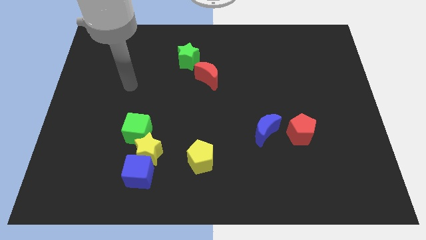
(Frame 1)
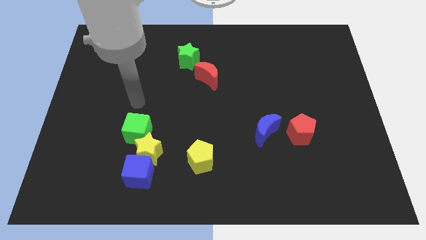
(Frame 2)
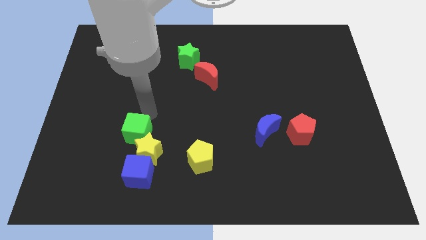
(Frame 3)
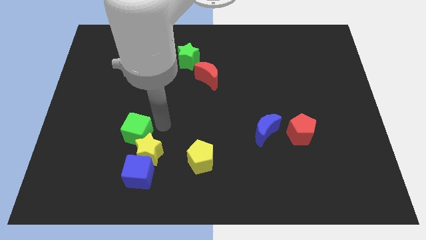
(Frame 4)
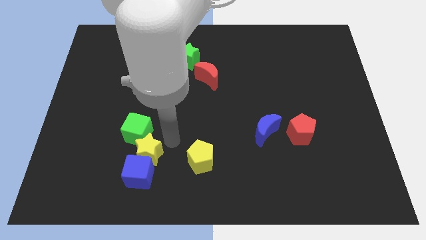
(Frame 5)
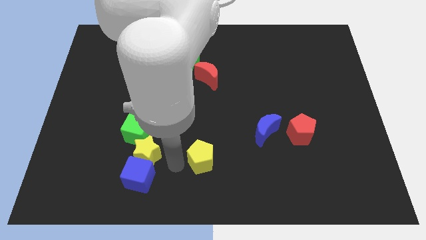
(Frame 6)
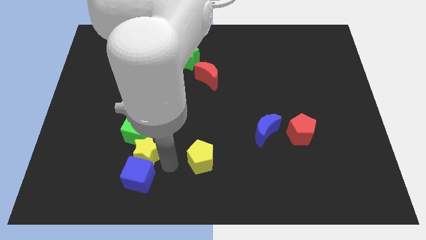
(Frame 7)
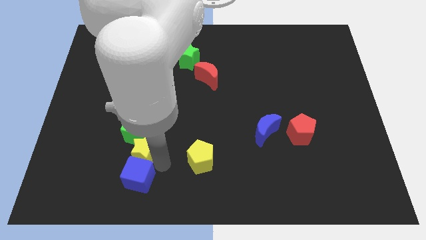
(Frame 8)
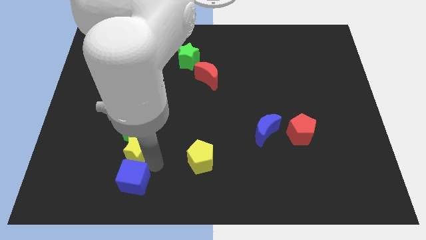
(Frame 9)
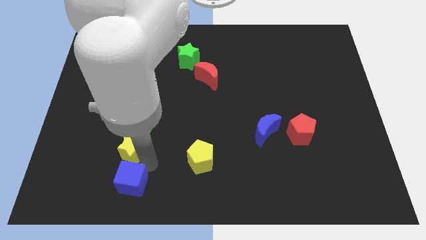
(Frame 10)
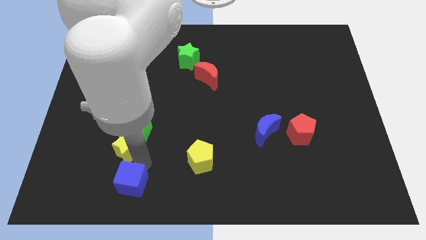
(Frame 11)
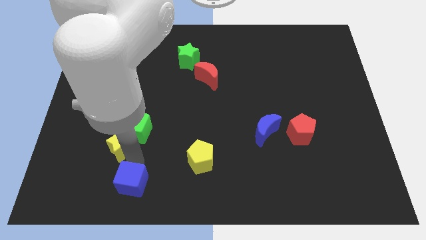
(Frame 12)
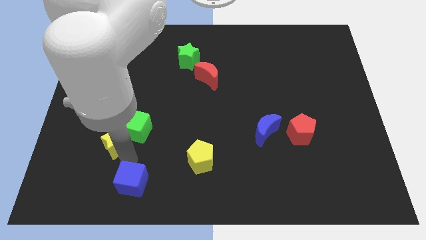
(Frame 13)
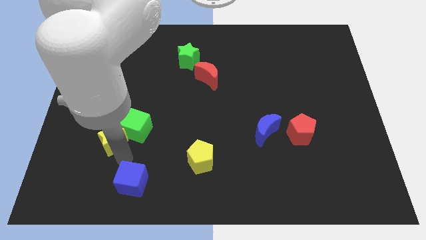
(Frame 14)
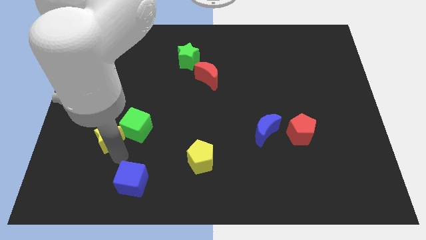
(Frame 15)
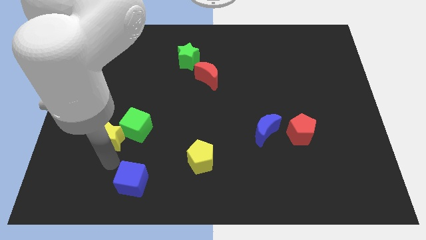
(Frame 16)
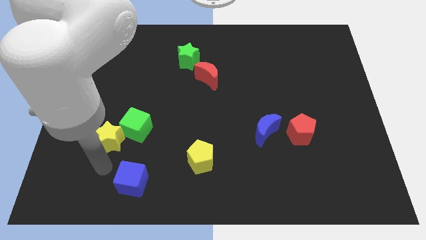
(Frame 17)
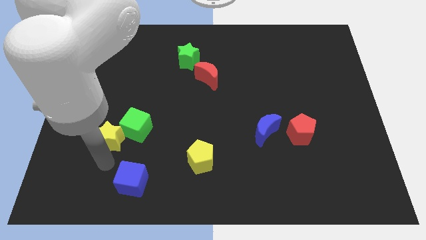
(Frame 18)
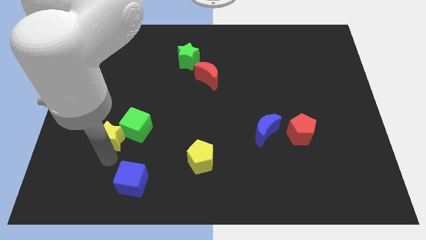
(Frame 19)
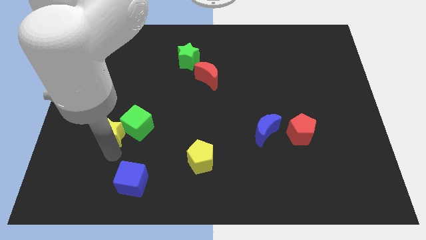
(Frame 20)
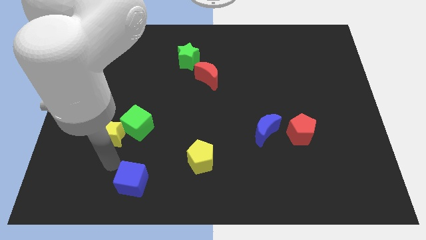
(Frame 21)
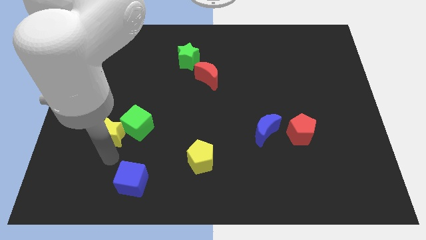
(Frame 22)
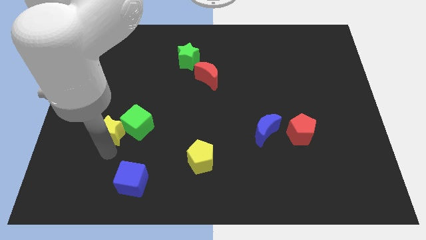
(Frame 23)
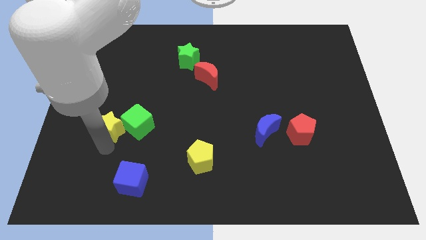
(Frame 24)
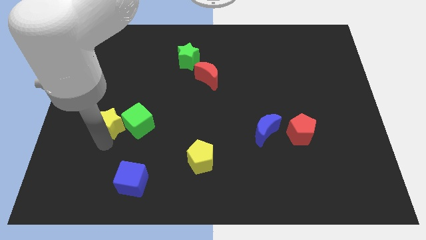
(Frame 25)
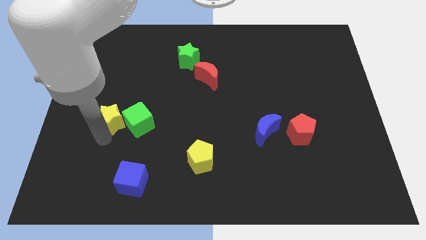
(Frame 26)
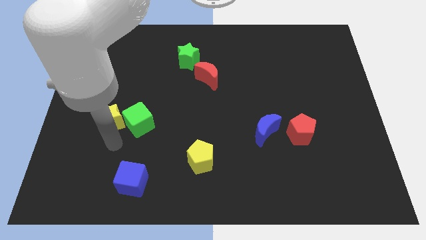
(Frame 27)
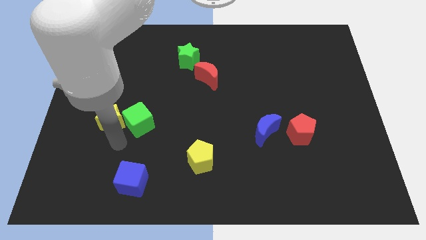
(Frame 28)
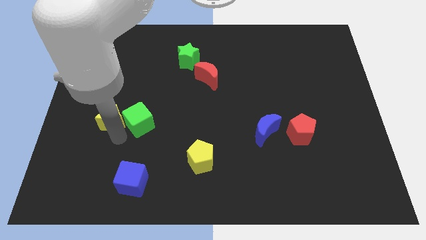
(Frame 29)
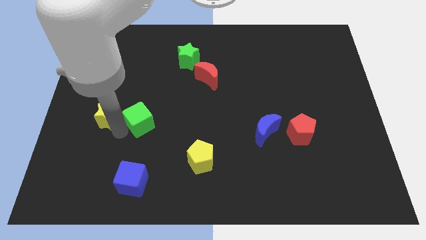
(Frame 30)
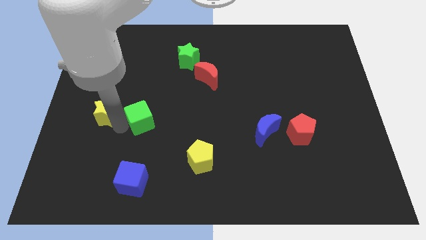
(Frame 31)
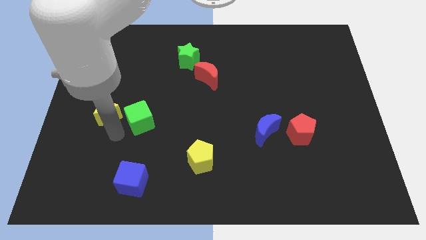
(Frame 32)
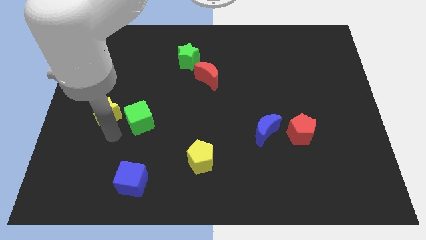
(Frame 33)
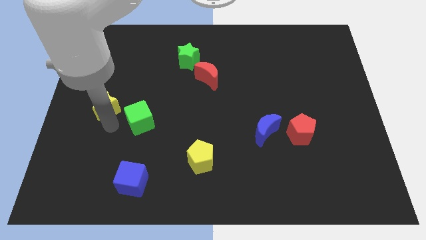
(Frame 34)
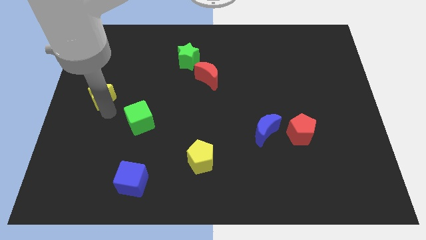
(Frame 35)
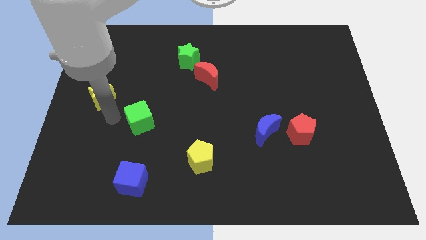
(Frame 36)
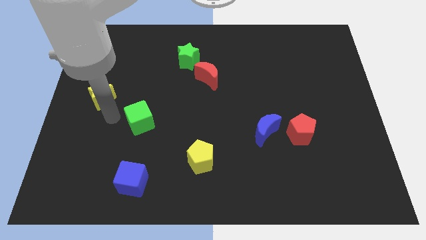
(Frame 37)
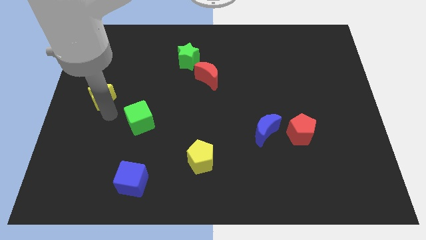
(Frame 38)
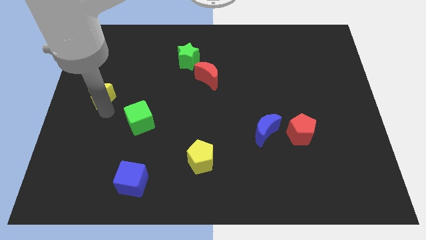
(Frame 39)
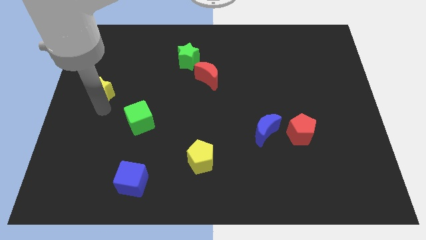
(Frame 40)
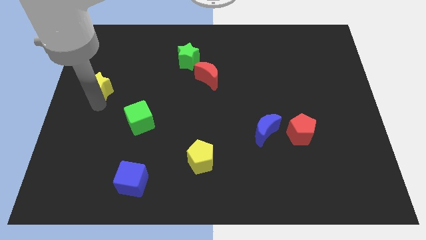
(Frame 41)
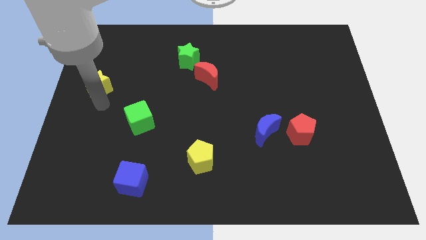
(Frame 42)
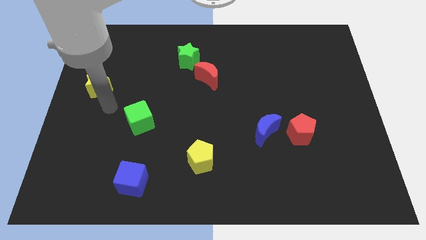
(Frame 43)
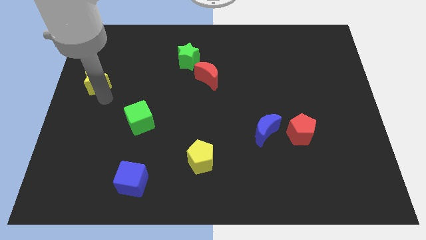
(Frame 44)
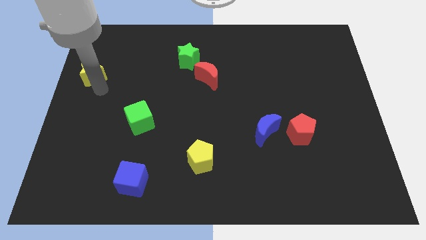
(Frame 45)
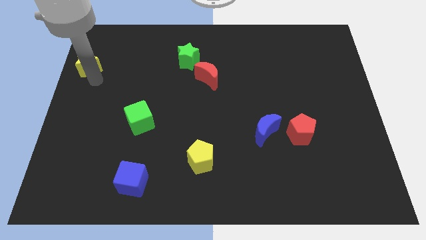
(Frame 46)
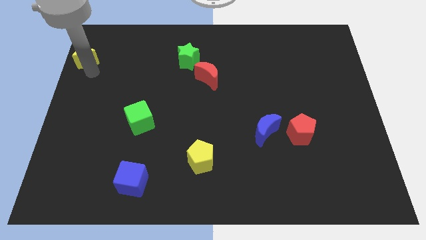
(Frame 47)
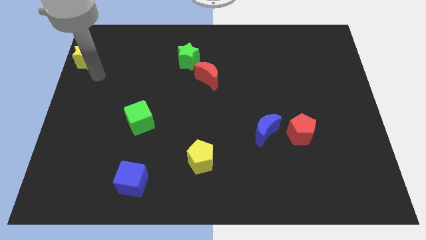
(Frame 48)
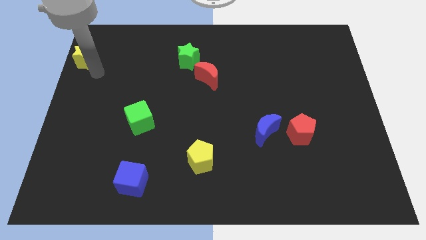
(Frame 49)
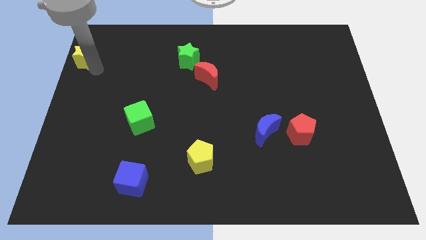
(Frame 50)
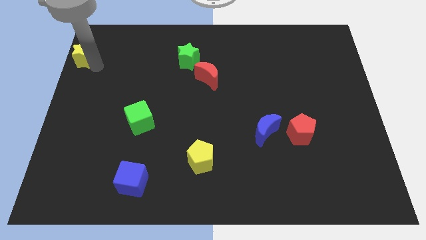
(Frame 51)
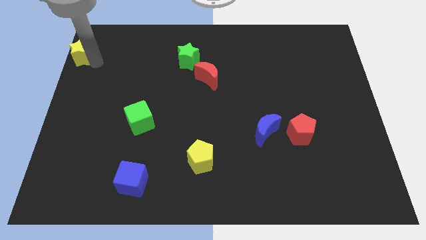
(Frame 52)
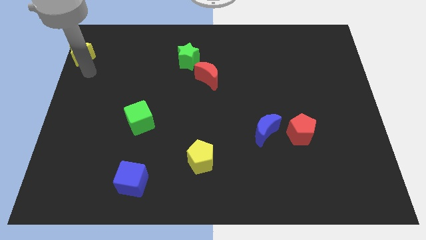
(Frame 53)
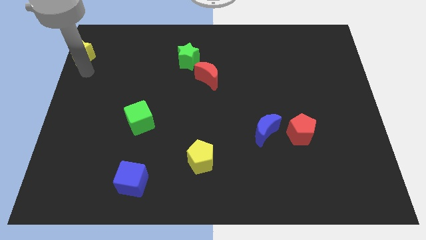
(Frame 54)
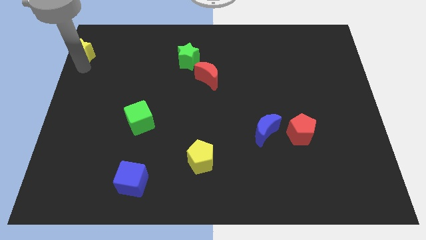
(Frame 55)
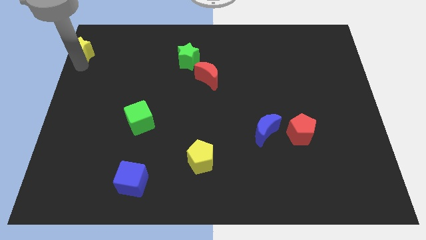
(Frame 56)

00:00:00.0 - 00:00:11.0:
move the yellow star to the top left of the board
